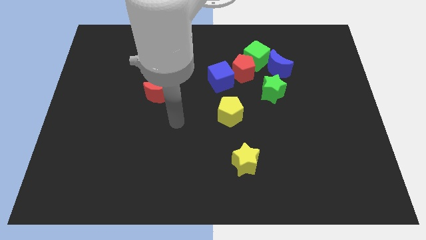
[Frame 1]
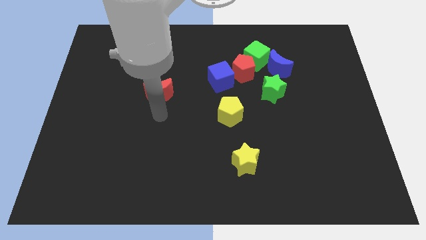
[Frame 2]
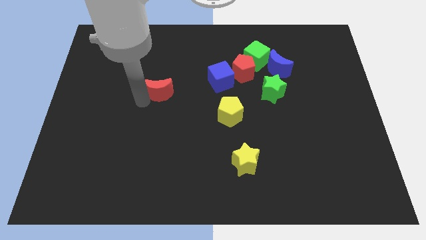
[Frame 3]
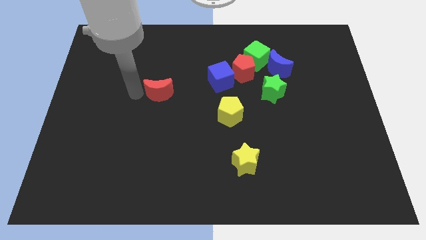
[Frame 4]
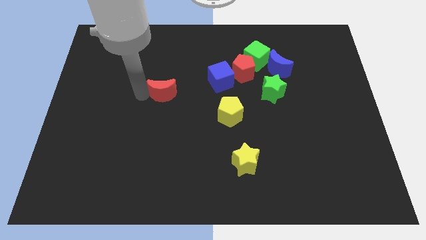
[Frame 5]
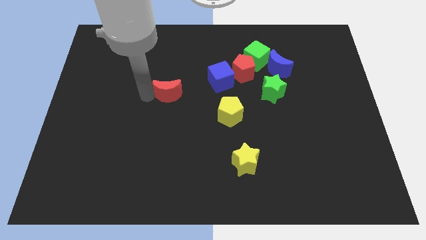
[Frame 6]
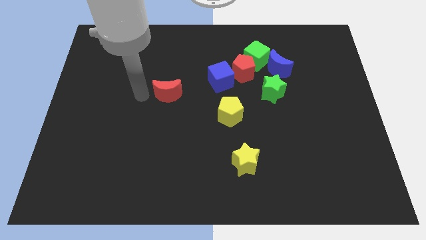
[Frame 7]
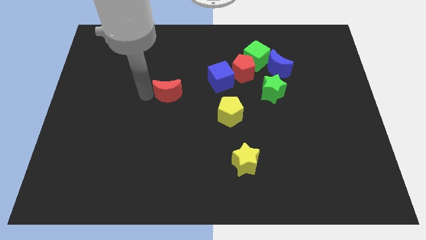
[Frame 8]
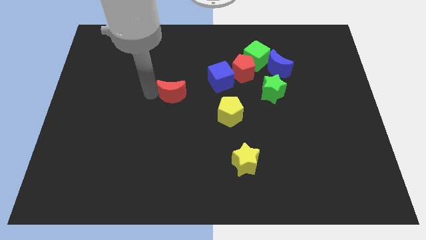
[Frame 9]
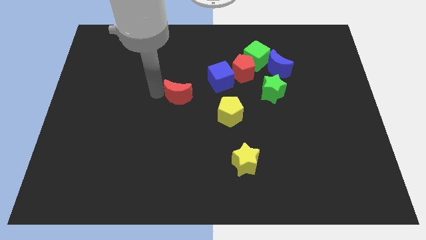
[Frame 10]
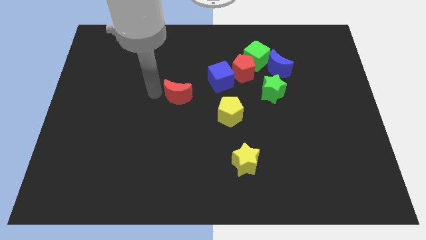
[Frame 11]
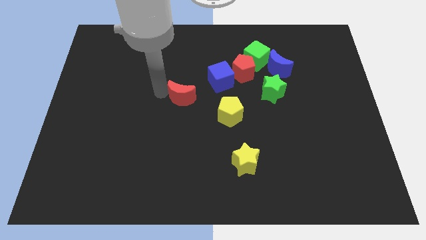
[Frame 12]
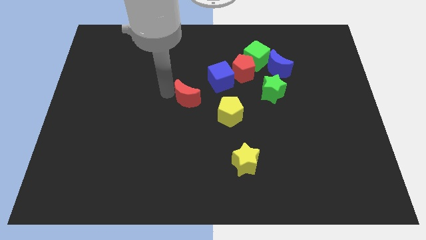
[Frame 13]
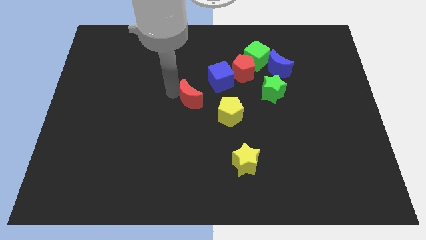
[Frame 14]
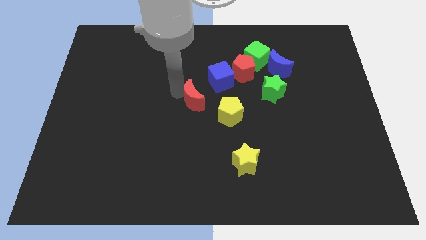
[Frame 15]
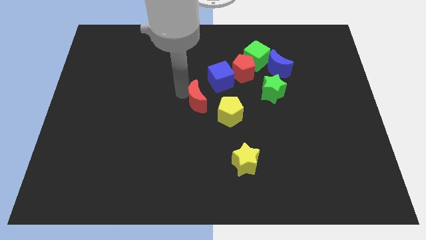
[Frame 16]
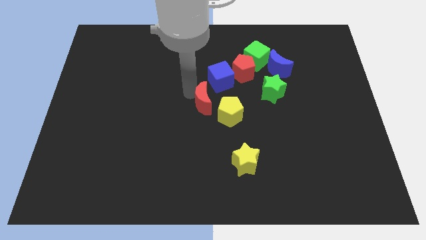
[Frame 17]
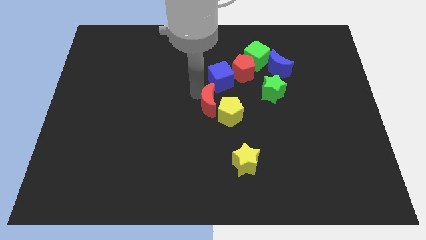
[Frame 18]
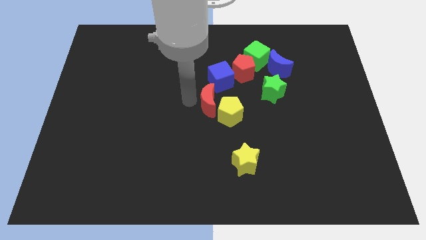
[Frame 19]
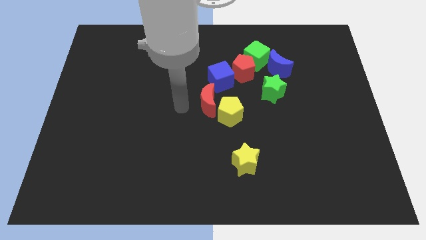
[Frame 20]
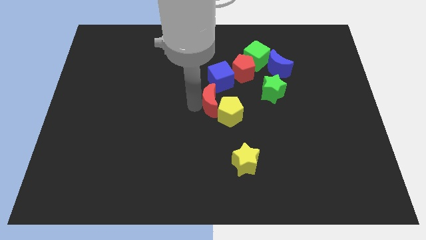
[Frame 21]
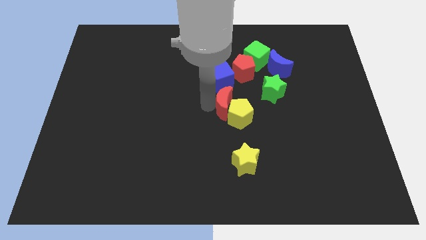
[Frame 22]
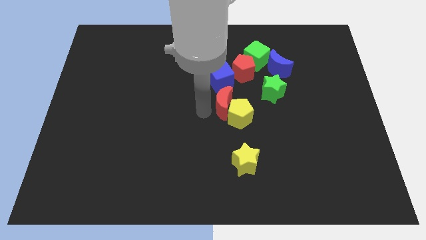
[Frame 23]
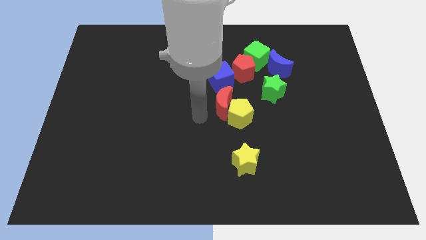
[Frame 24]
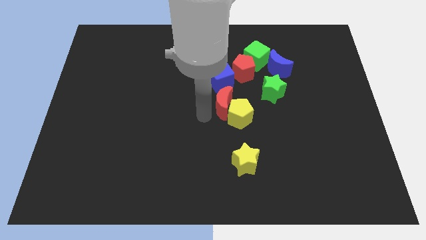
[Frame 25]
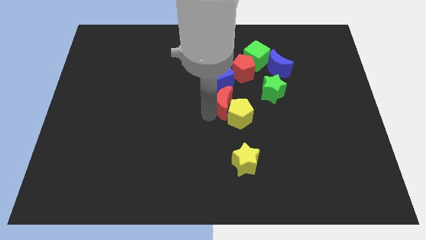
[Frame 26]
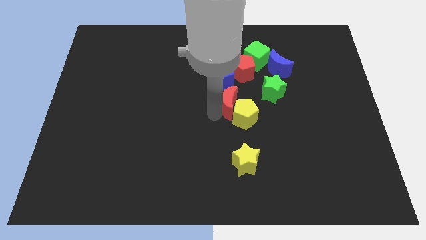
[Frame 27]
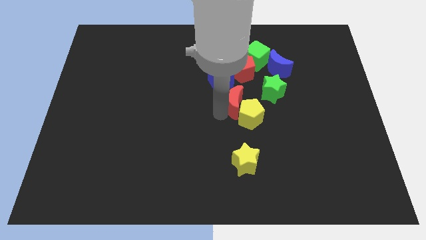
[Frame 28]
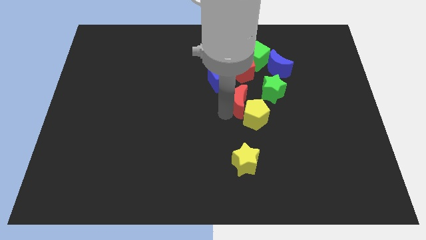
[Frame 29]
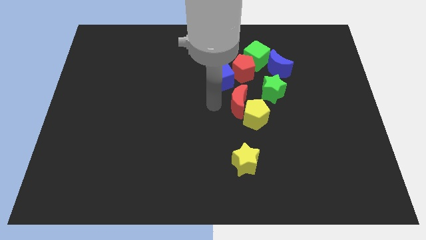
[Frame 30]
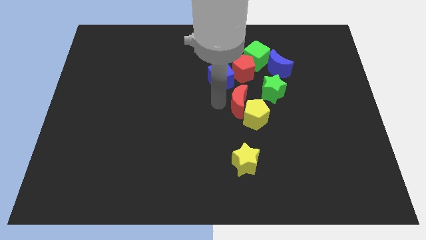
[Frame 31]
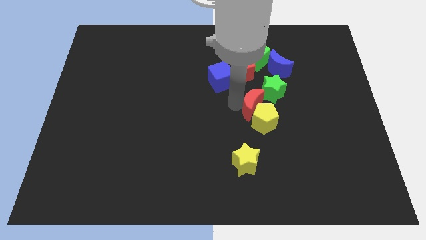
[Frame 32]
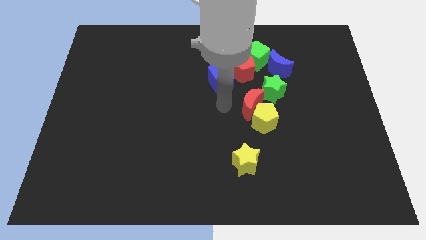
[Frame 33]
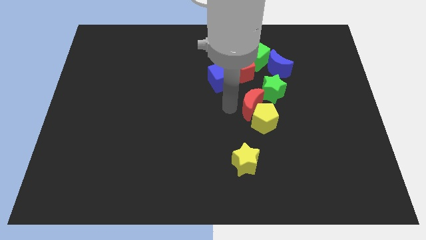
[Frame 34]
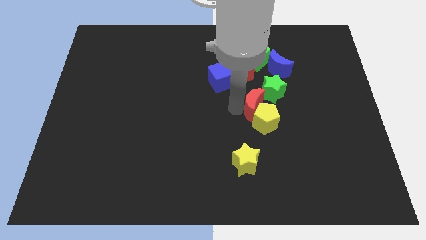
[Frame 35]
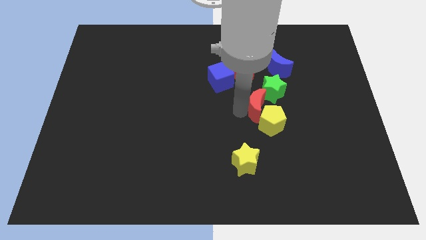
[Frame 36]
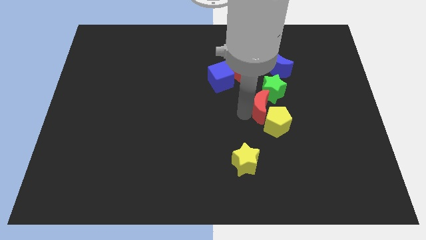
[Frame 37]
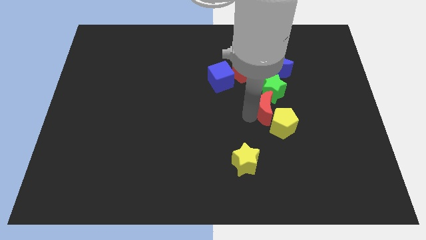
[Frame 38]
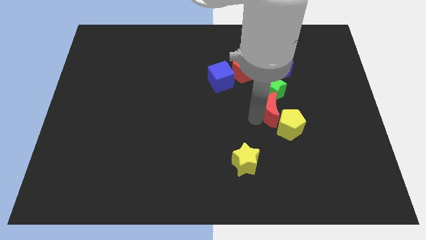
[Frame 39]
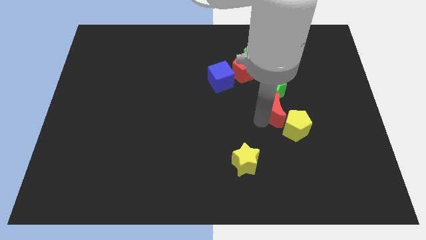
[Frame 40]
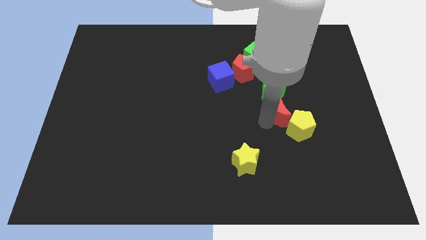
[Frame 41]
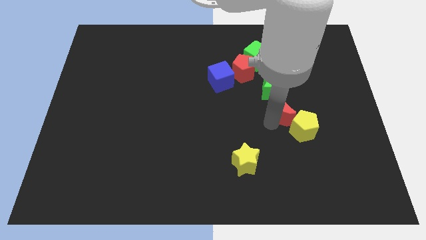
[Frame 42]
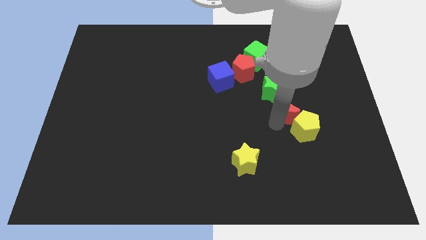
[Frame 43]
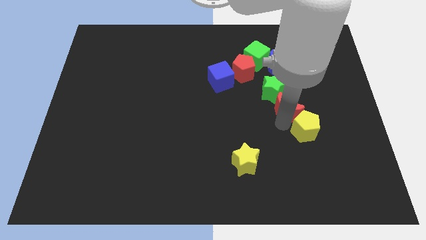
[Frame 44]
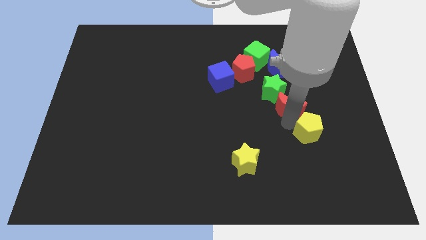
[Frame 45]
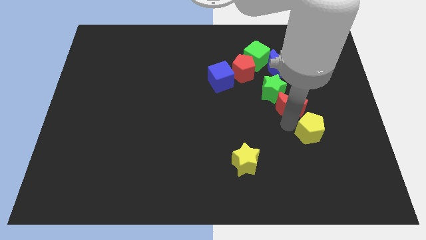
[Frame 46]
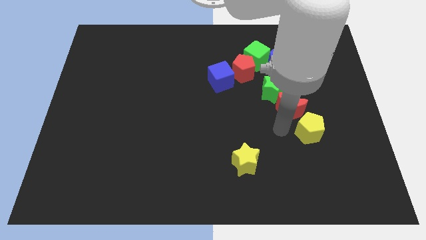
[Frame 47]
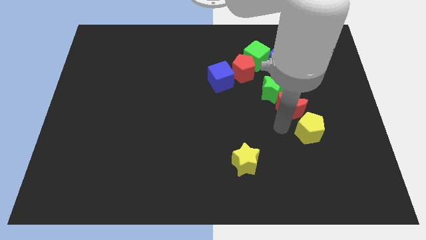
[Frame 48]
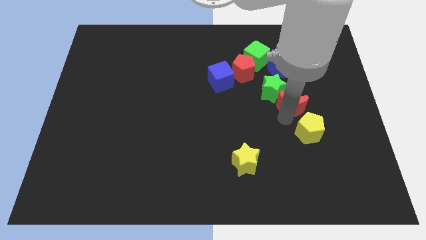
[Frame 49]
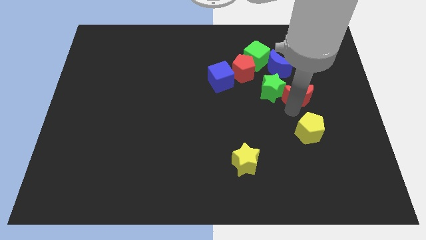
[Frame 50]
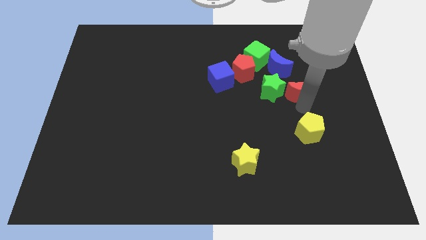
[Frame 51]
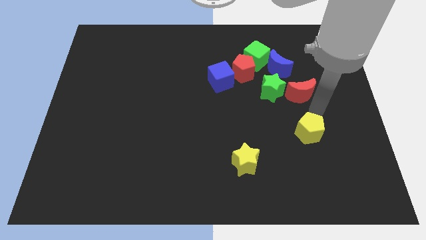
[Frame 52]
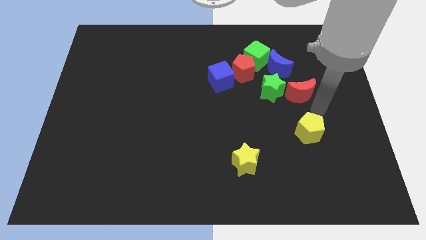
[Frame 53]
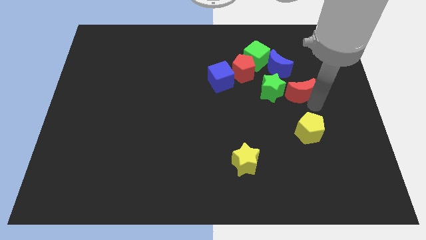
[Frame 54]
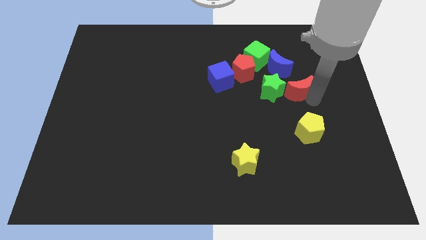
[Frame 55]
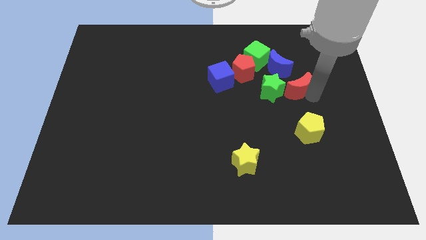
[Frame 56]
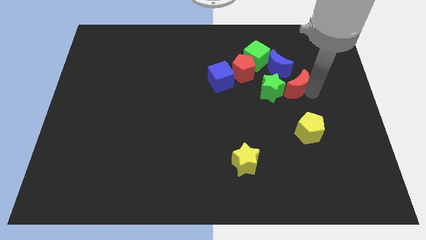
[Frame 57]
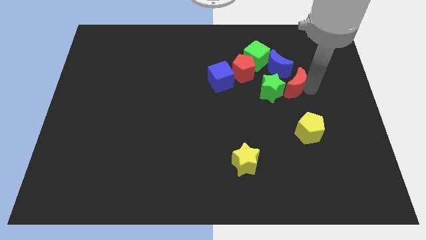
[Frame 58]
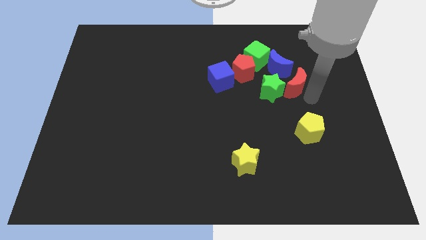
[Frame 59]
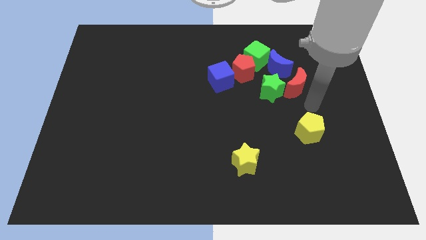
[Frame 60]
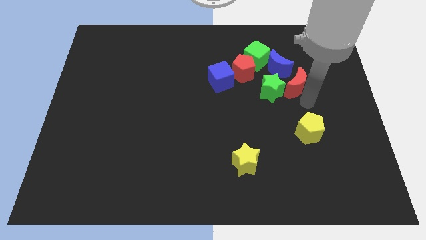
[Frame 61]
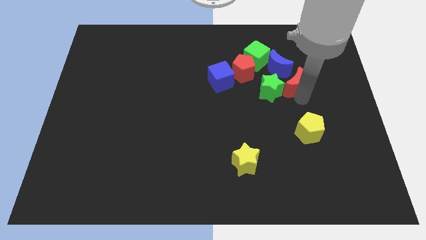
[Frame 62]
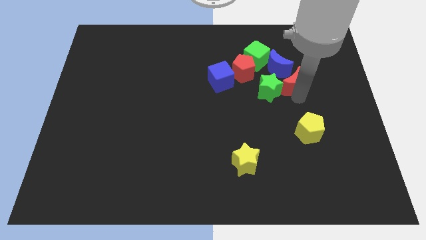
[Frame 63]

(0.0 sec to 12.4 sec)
push the red moon just right of the red pentagon

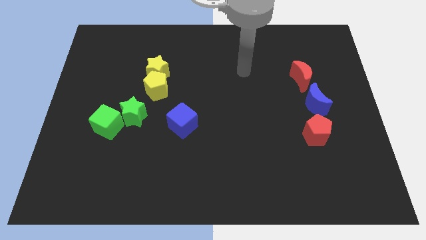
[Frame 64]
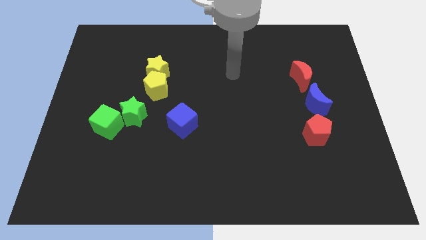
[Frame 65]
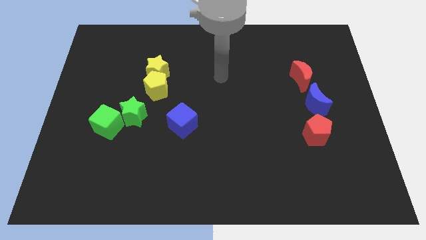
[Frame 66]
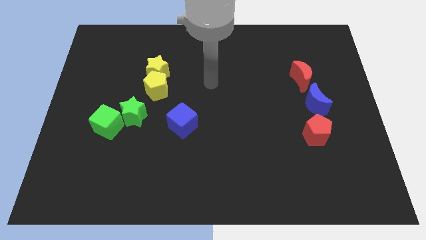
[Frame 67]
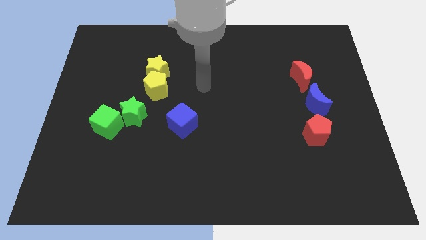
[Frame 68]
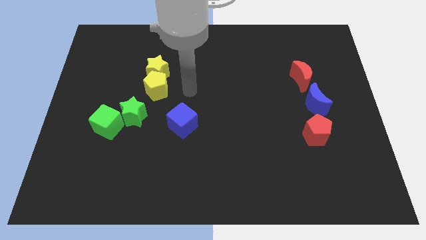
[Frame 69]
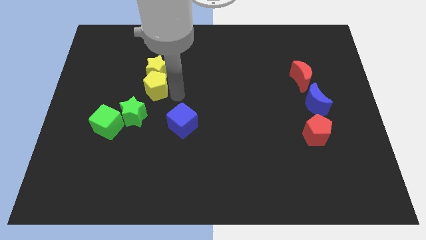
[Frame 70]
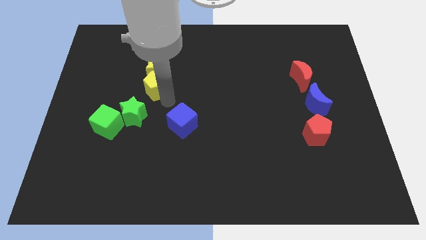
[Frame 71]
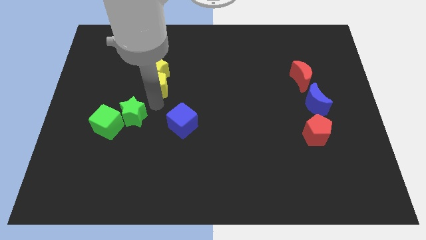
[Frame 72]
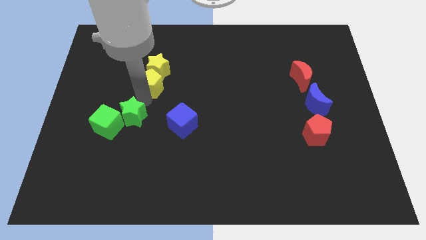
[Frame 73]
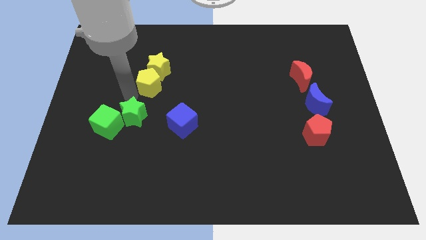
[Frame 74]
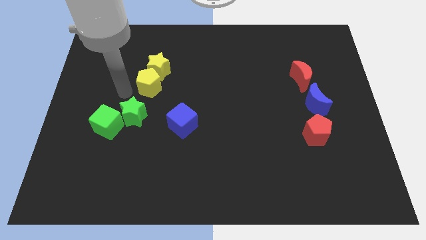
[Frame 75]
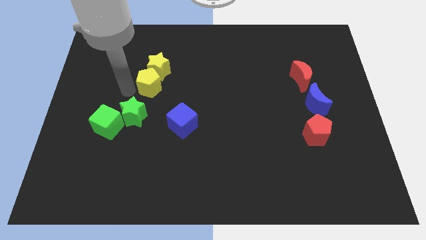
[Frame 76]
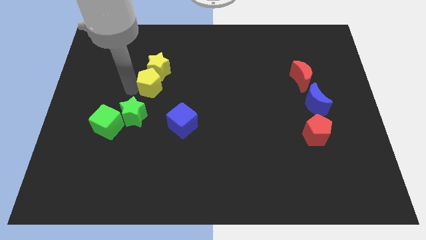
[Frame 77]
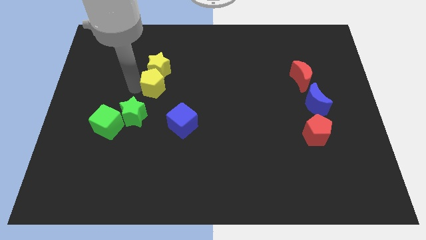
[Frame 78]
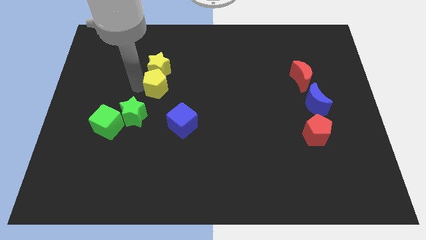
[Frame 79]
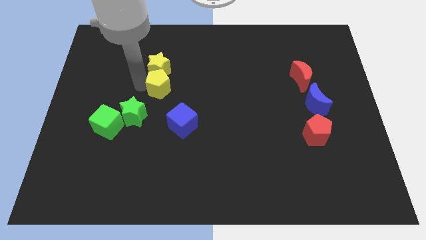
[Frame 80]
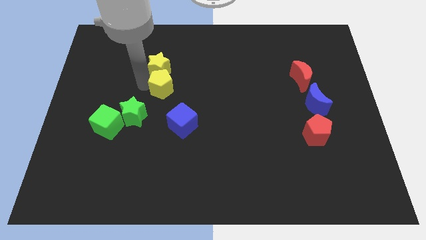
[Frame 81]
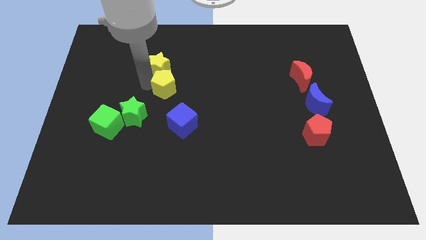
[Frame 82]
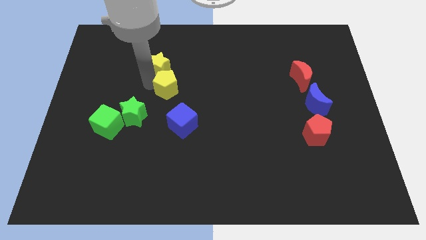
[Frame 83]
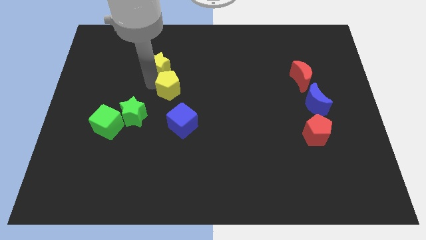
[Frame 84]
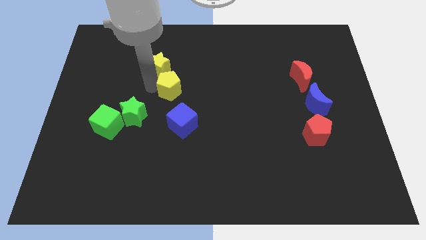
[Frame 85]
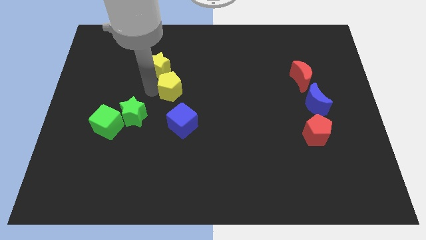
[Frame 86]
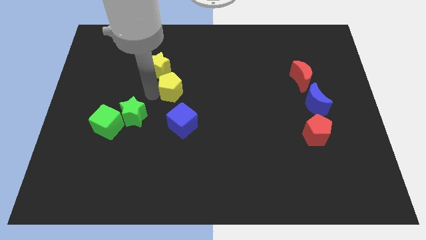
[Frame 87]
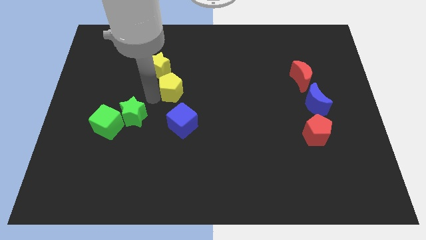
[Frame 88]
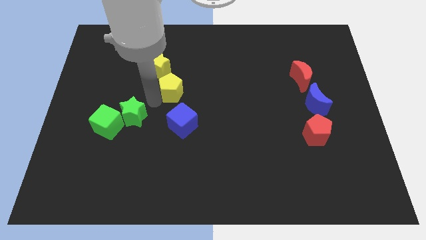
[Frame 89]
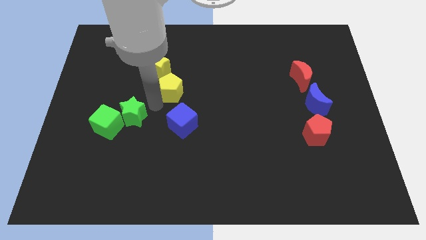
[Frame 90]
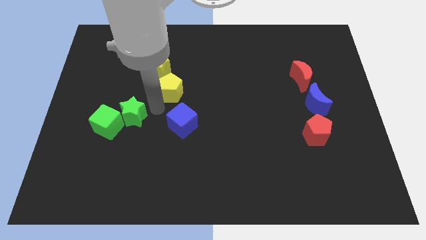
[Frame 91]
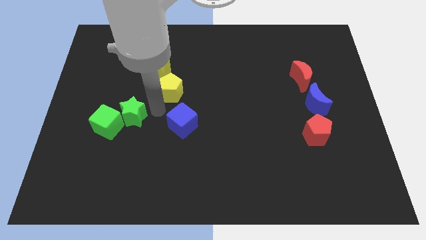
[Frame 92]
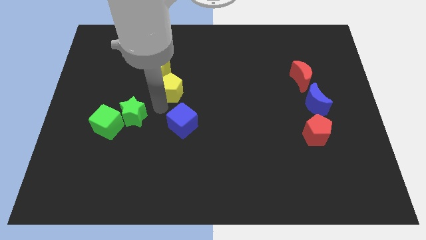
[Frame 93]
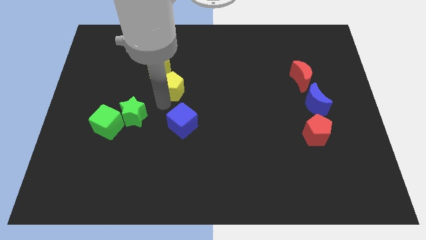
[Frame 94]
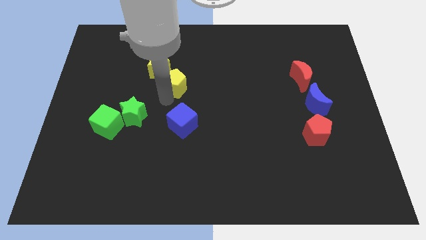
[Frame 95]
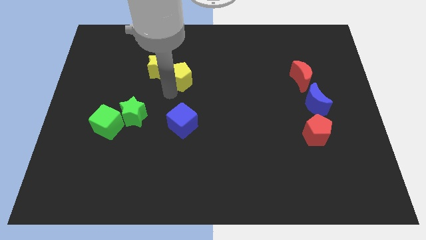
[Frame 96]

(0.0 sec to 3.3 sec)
move the yellow pentagon to the right side of the yellow star
